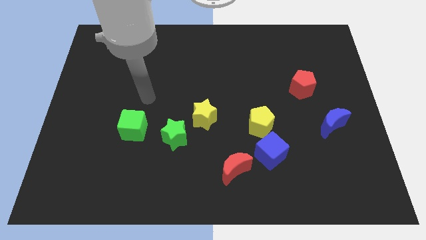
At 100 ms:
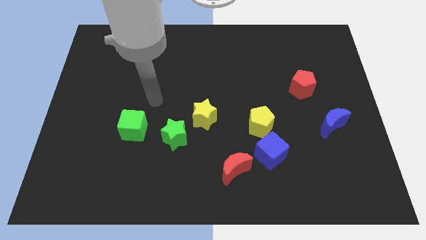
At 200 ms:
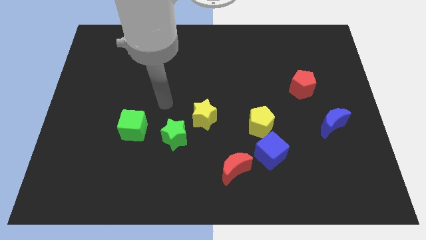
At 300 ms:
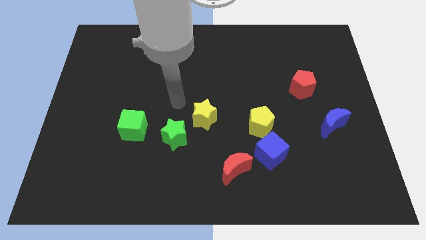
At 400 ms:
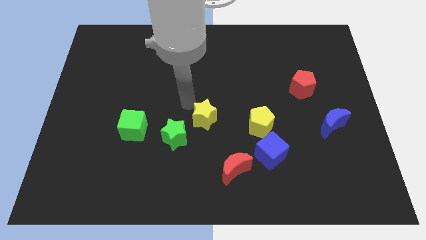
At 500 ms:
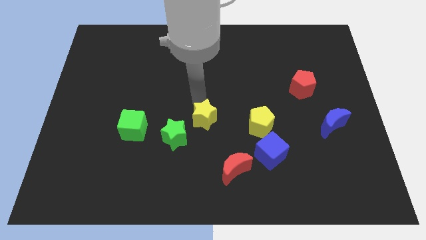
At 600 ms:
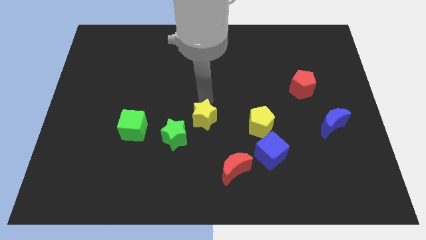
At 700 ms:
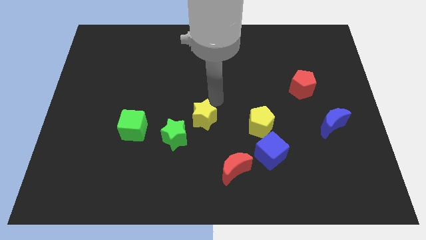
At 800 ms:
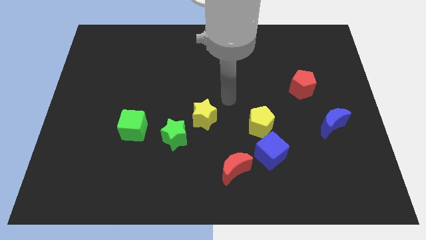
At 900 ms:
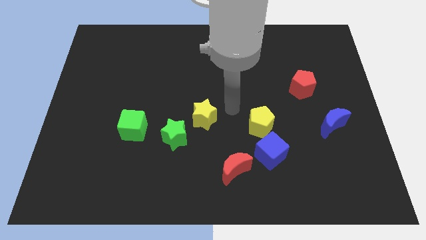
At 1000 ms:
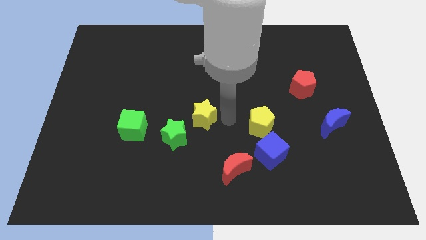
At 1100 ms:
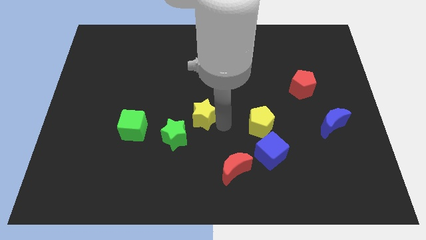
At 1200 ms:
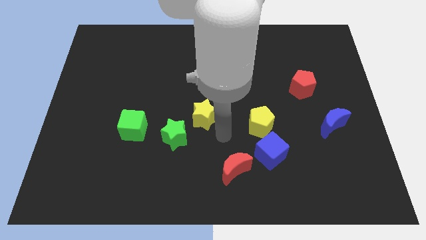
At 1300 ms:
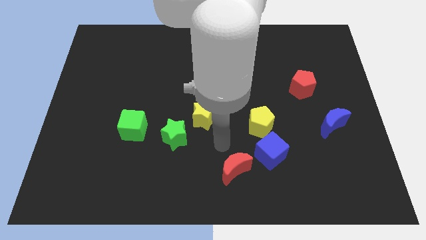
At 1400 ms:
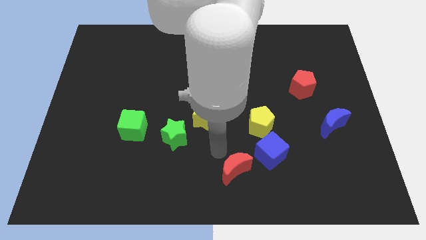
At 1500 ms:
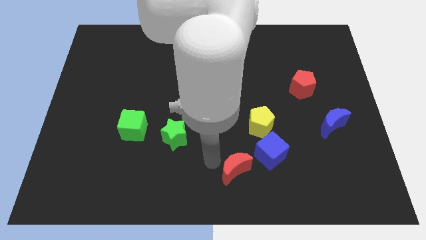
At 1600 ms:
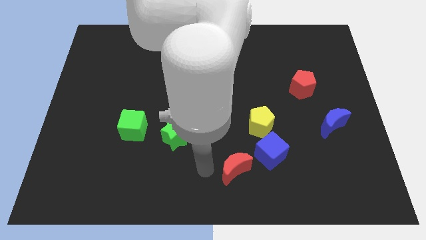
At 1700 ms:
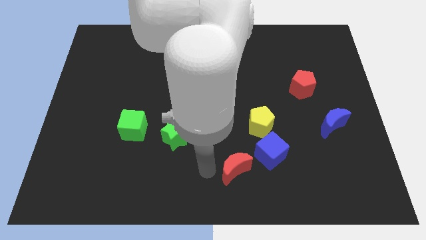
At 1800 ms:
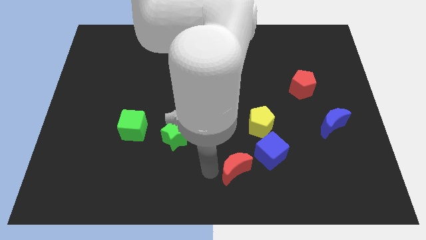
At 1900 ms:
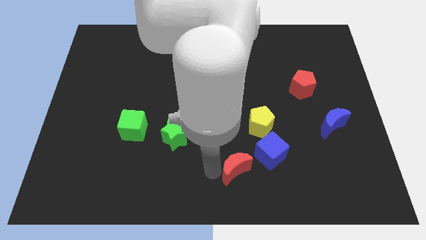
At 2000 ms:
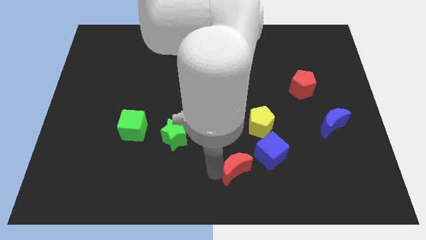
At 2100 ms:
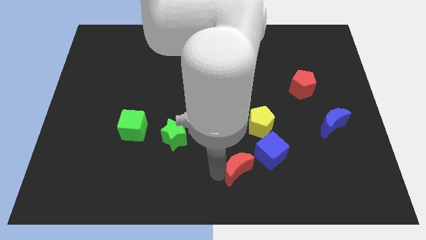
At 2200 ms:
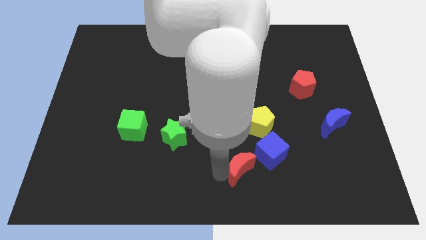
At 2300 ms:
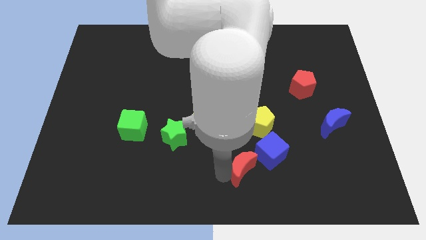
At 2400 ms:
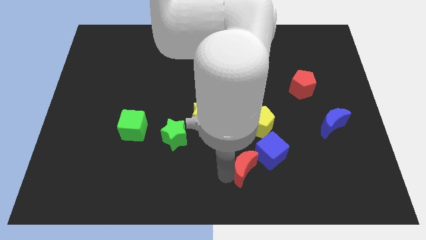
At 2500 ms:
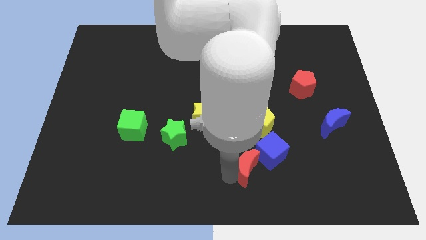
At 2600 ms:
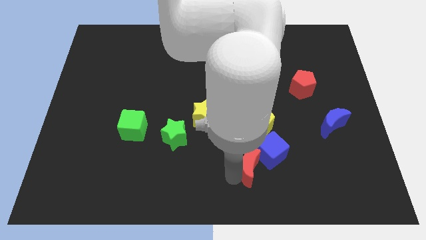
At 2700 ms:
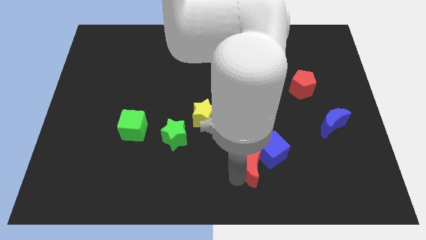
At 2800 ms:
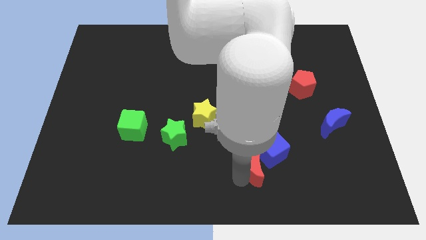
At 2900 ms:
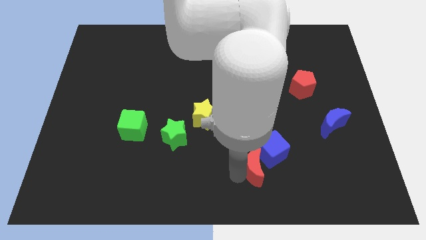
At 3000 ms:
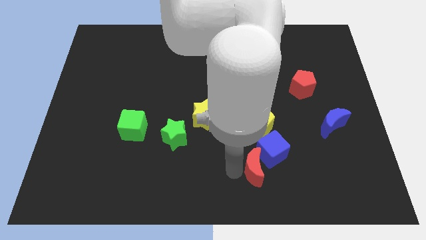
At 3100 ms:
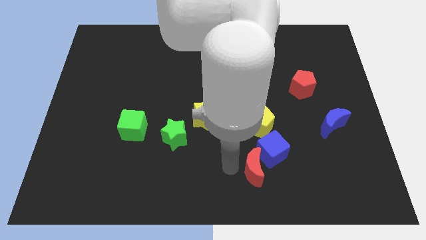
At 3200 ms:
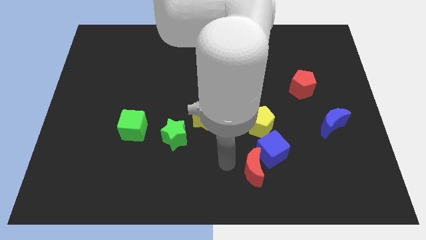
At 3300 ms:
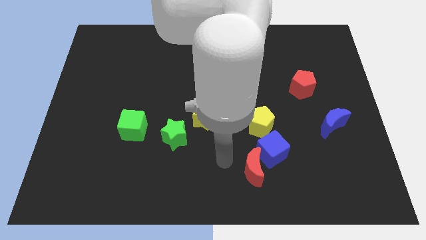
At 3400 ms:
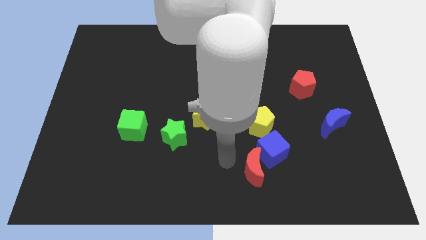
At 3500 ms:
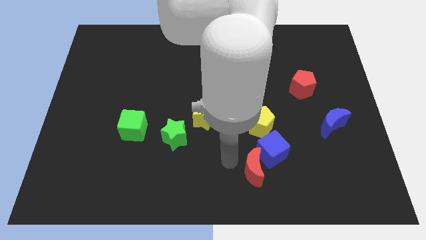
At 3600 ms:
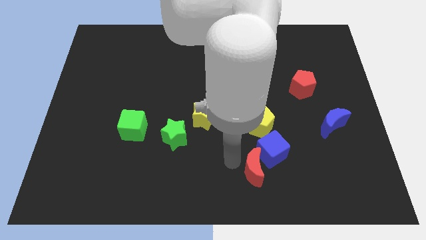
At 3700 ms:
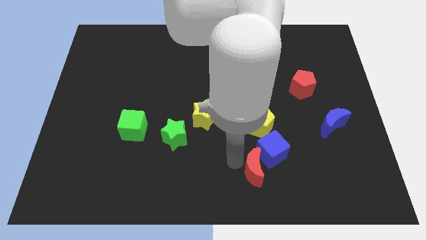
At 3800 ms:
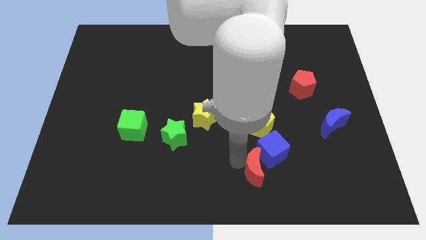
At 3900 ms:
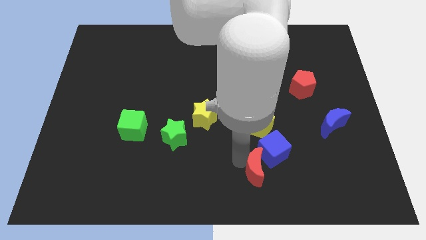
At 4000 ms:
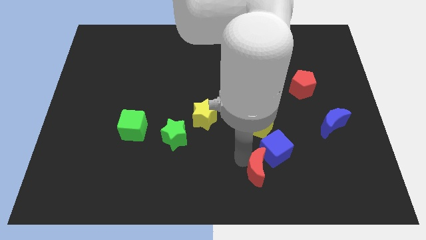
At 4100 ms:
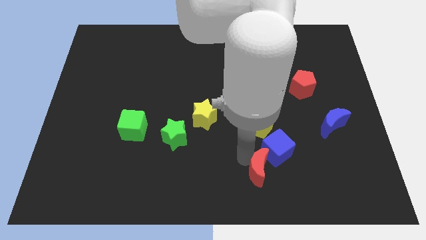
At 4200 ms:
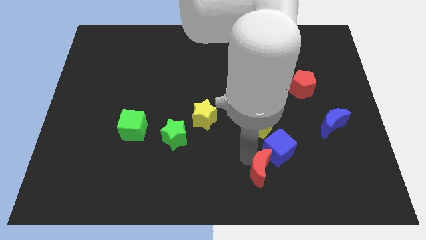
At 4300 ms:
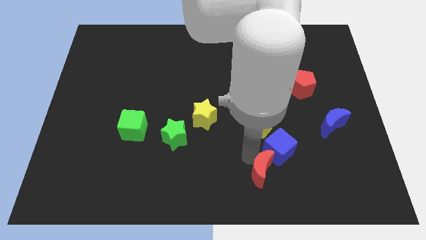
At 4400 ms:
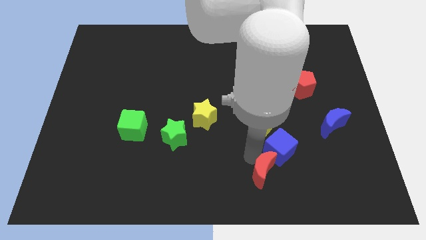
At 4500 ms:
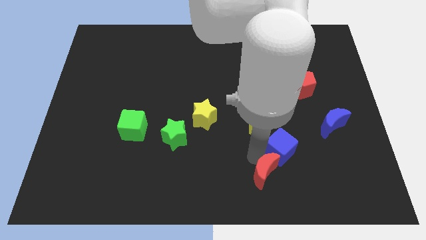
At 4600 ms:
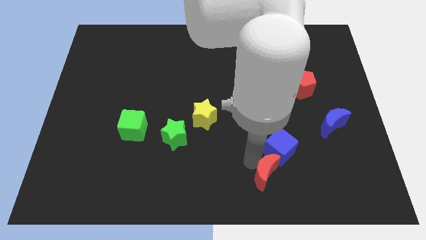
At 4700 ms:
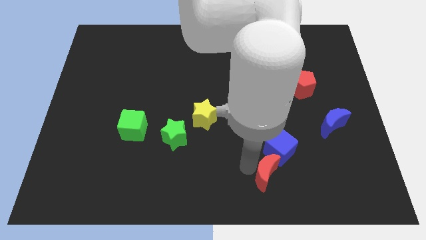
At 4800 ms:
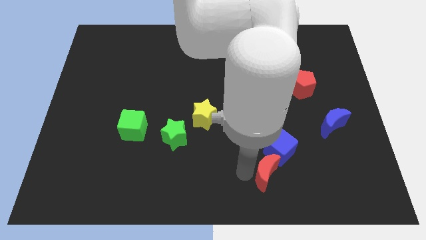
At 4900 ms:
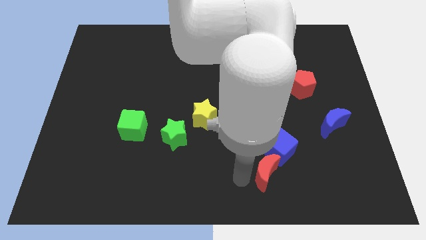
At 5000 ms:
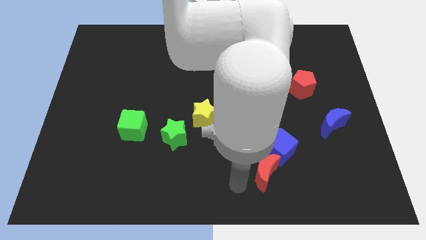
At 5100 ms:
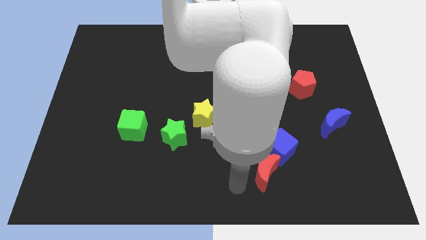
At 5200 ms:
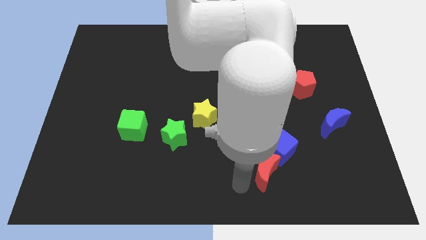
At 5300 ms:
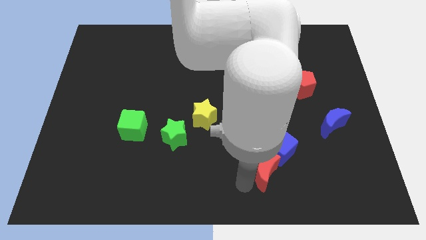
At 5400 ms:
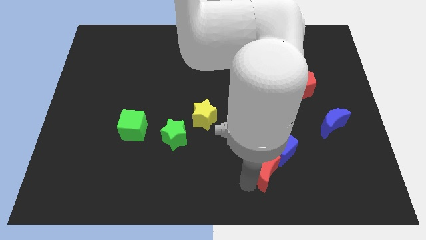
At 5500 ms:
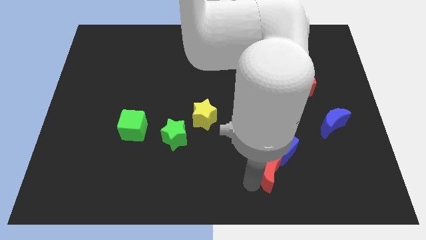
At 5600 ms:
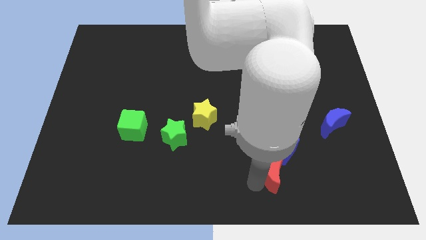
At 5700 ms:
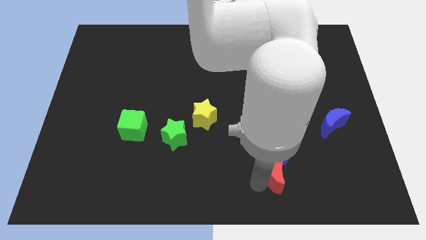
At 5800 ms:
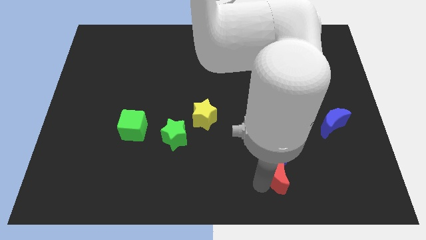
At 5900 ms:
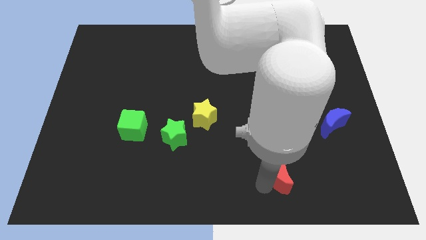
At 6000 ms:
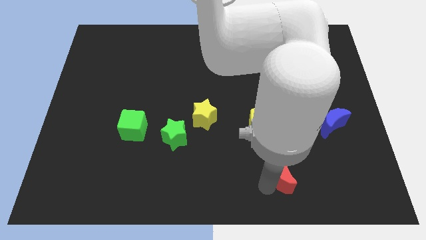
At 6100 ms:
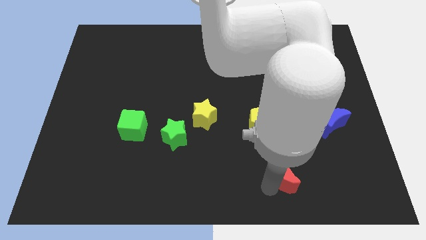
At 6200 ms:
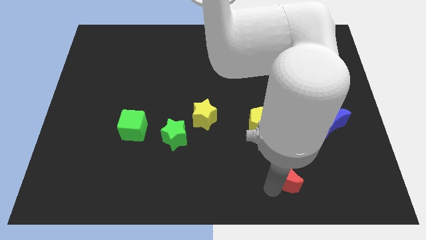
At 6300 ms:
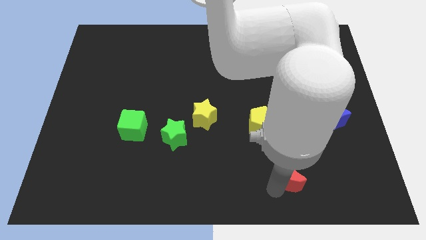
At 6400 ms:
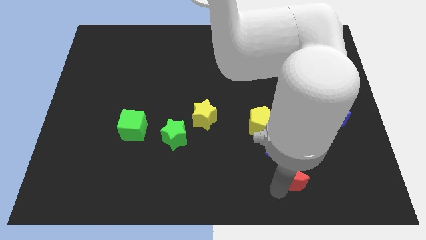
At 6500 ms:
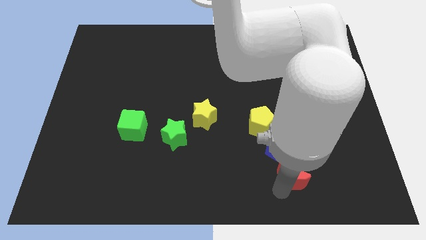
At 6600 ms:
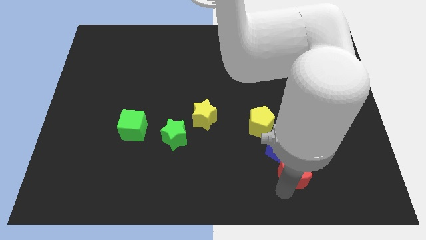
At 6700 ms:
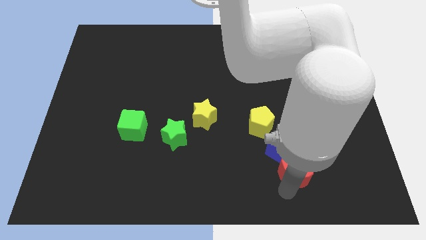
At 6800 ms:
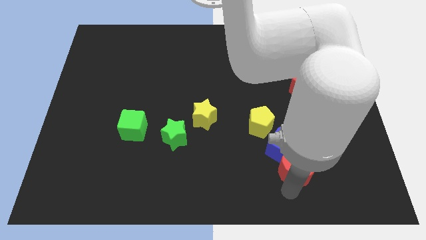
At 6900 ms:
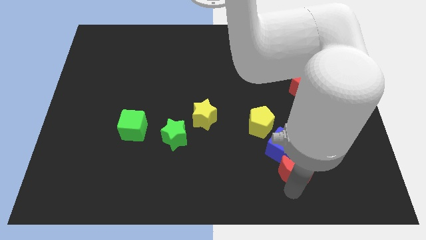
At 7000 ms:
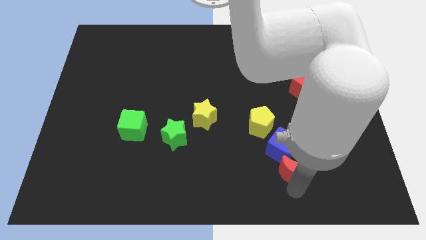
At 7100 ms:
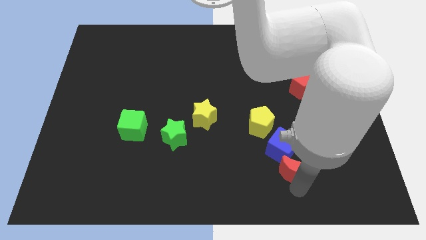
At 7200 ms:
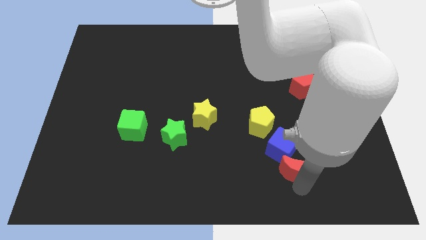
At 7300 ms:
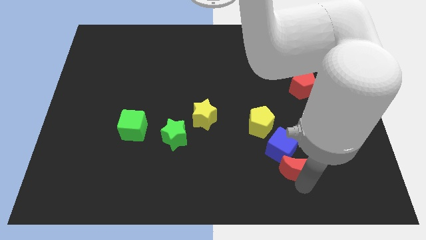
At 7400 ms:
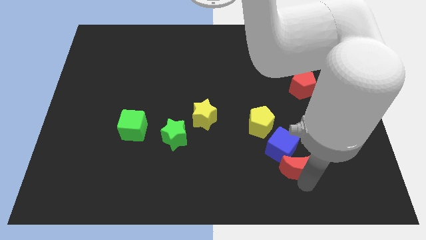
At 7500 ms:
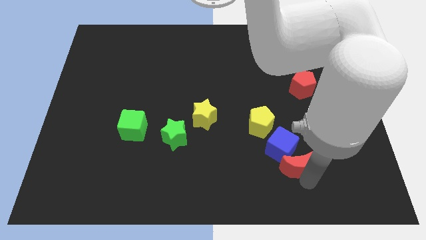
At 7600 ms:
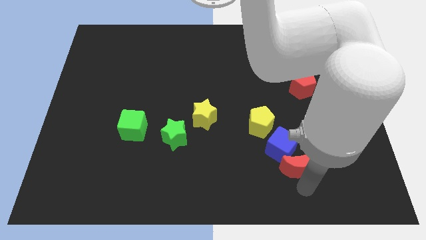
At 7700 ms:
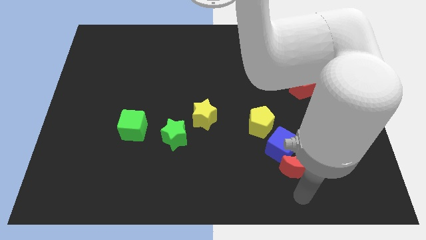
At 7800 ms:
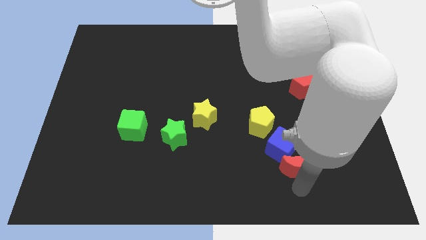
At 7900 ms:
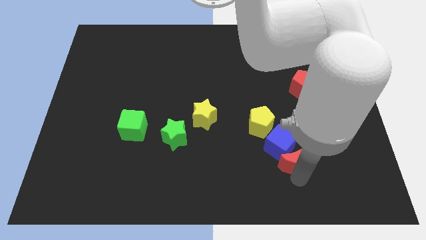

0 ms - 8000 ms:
slightly slide the red moon up and right diagonally
